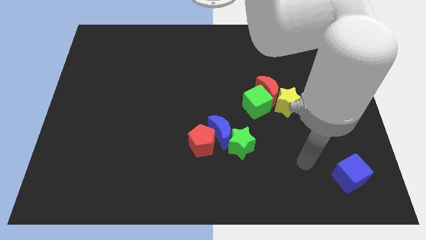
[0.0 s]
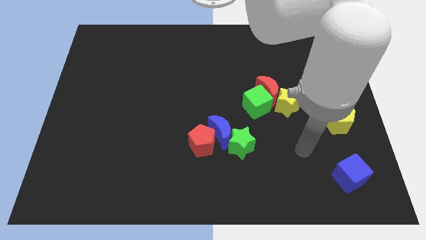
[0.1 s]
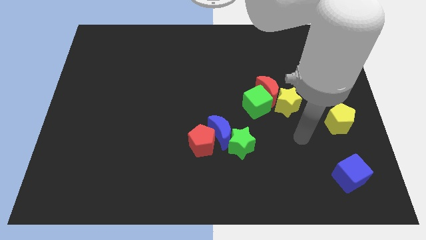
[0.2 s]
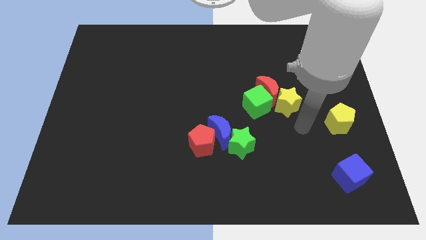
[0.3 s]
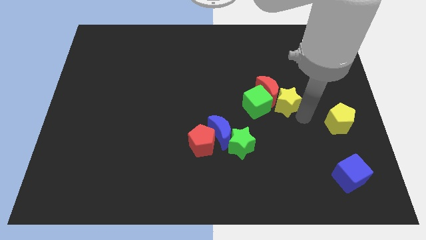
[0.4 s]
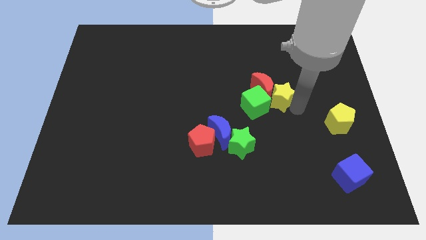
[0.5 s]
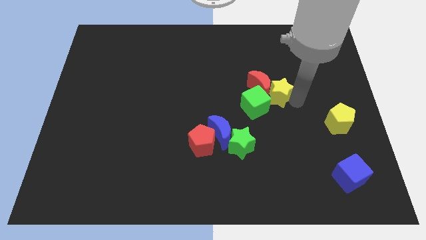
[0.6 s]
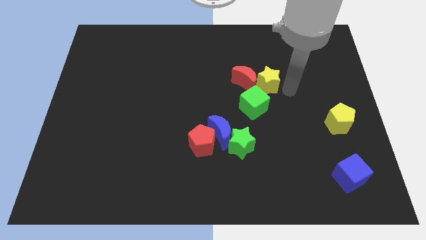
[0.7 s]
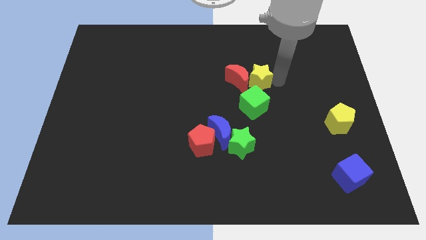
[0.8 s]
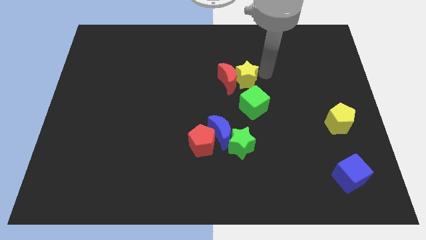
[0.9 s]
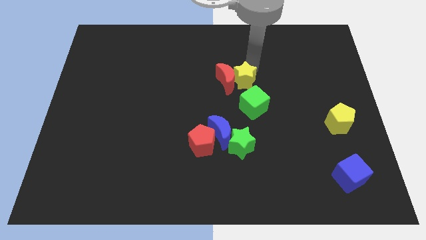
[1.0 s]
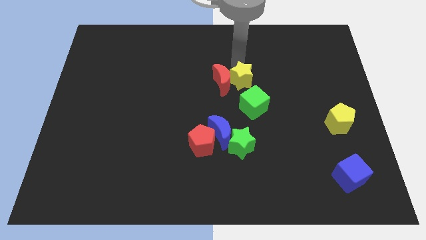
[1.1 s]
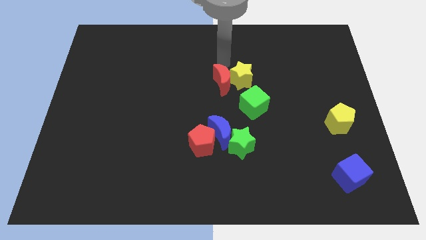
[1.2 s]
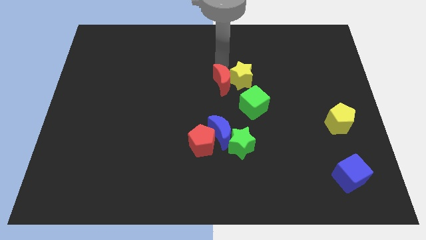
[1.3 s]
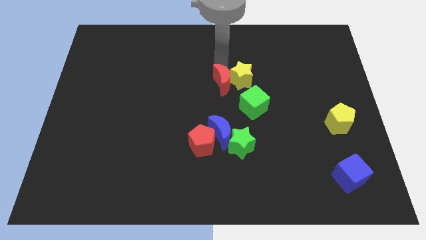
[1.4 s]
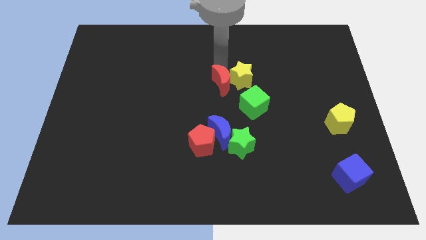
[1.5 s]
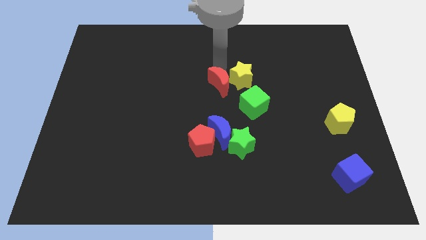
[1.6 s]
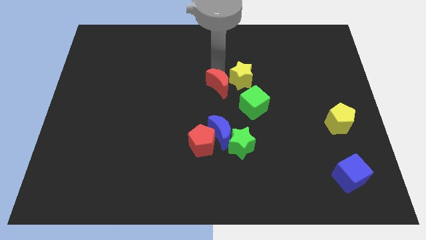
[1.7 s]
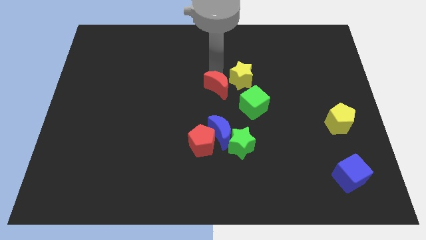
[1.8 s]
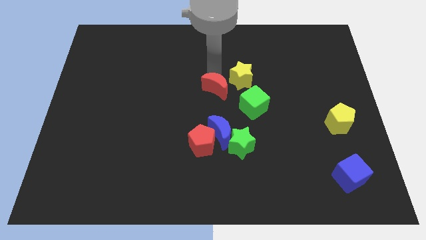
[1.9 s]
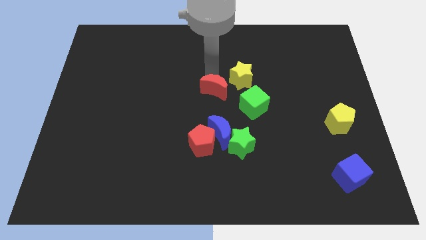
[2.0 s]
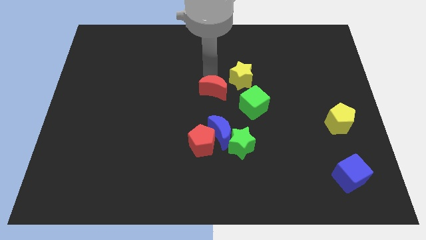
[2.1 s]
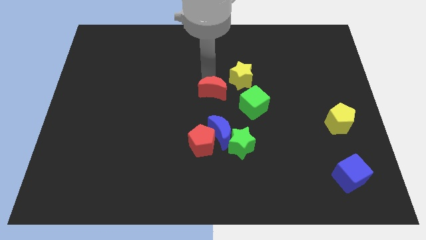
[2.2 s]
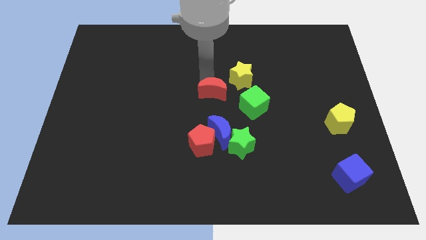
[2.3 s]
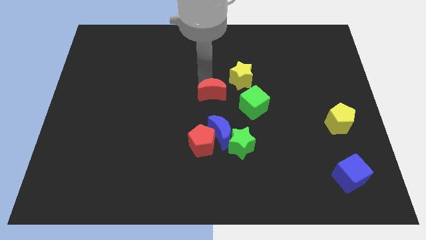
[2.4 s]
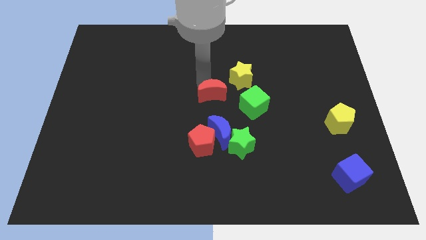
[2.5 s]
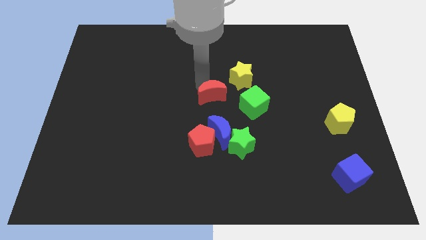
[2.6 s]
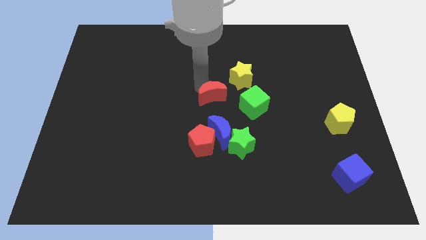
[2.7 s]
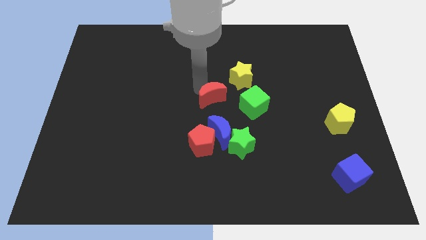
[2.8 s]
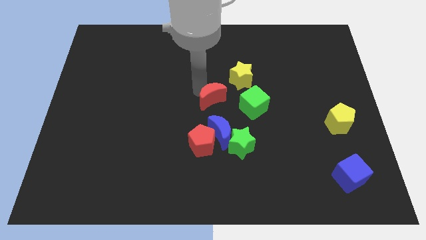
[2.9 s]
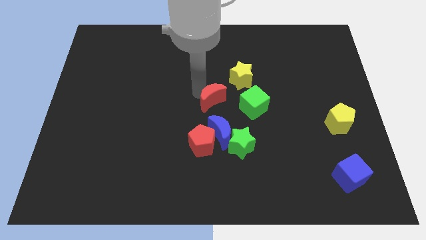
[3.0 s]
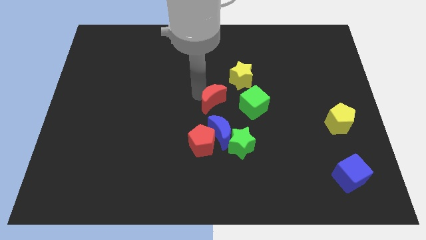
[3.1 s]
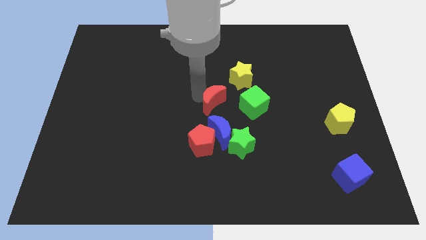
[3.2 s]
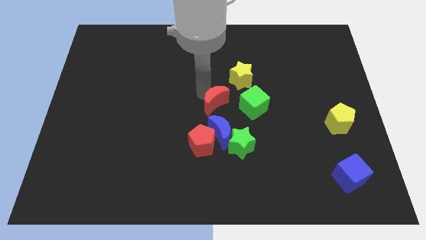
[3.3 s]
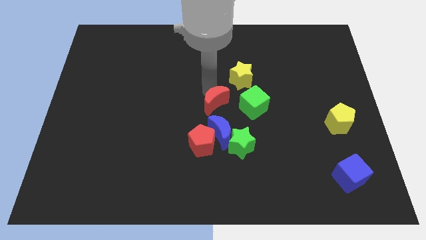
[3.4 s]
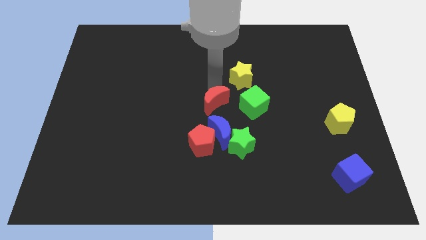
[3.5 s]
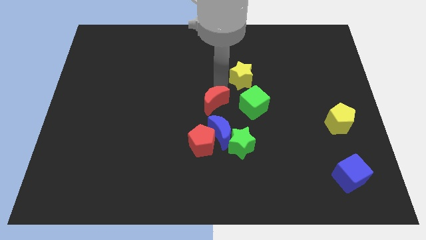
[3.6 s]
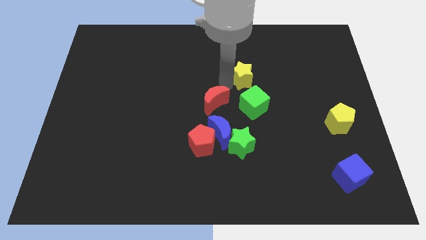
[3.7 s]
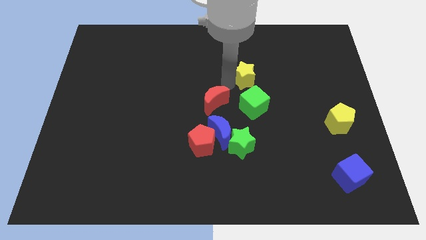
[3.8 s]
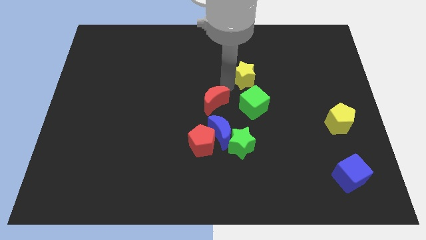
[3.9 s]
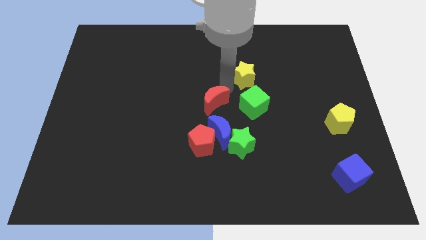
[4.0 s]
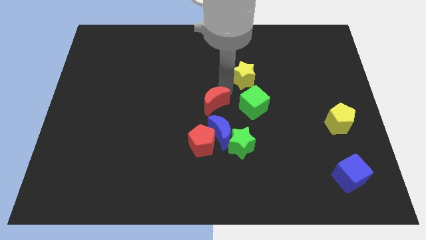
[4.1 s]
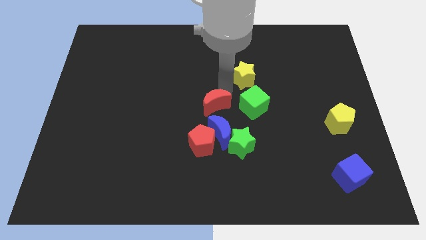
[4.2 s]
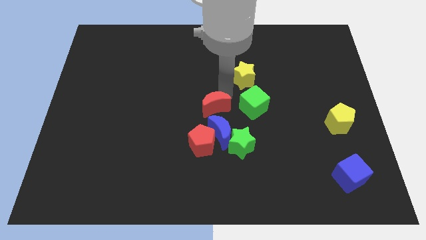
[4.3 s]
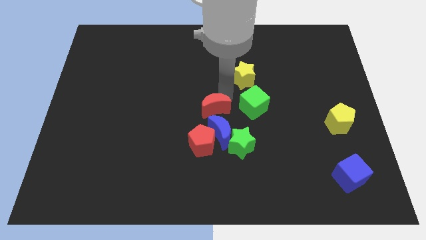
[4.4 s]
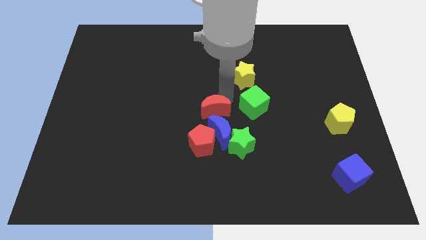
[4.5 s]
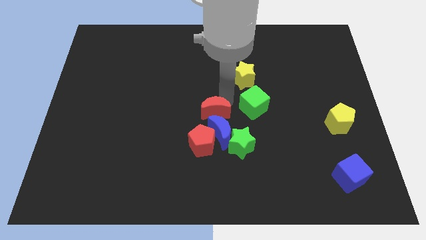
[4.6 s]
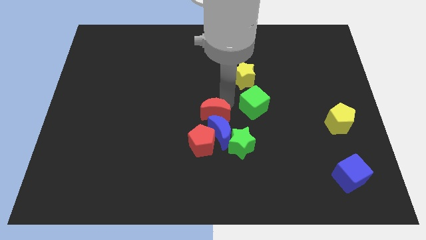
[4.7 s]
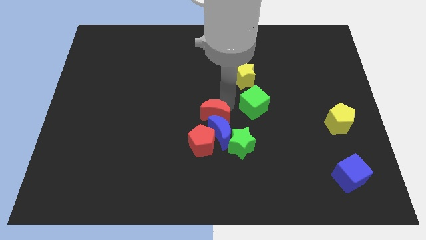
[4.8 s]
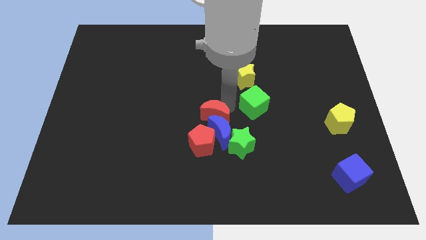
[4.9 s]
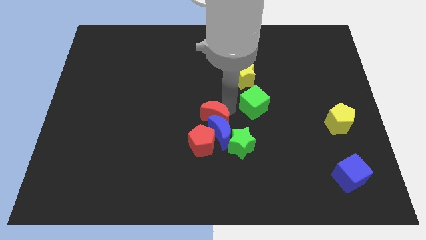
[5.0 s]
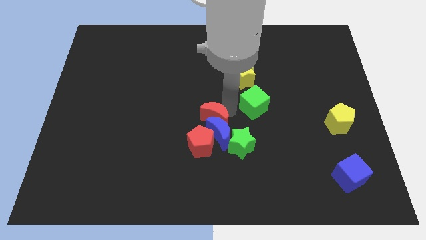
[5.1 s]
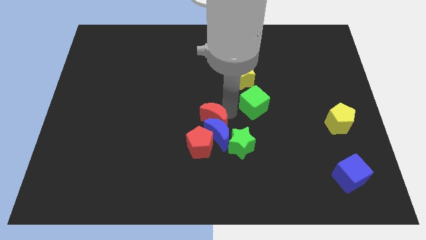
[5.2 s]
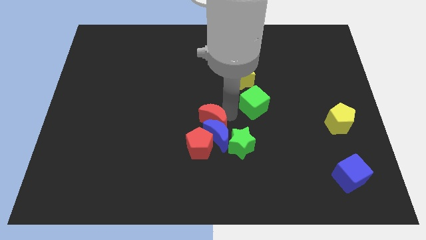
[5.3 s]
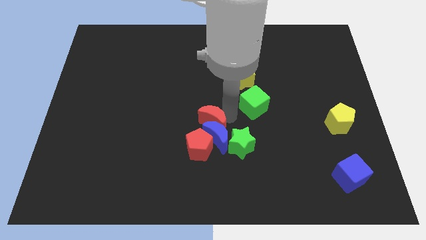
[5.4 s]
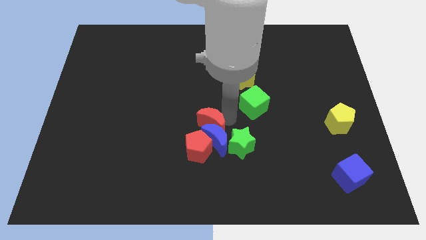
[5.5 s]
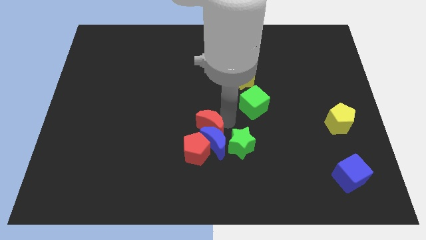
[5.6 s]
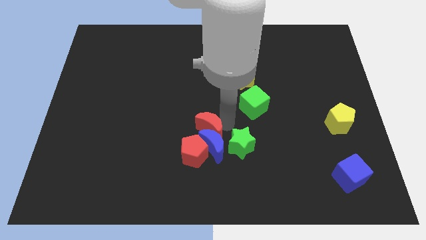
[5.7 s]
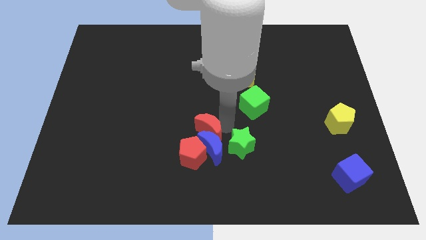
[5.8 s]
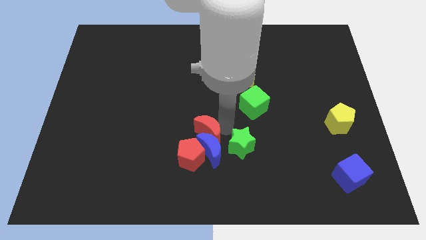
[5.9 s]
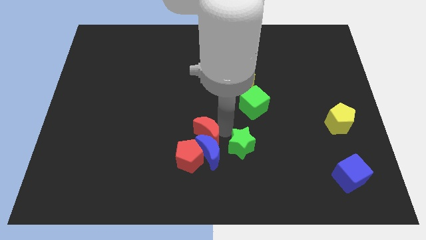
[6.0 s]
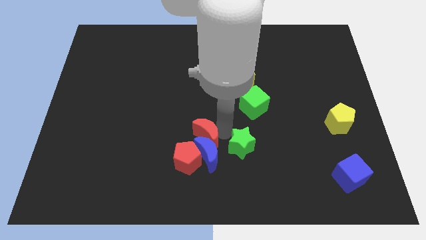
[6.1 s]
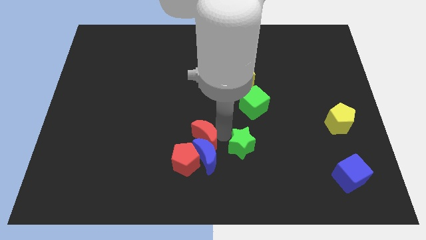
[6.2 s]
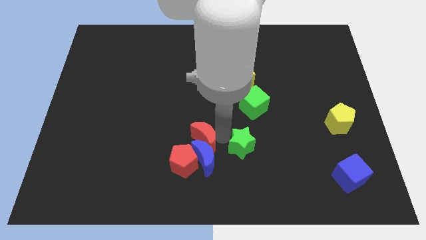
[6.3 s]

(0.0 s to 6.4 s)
slide the red moon down and to the left

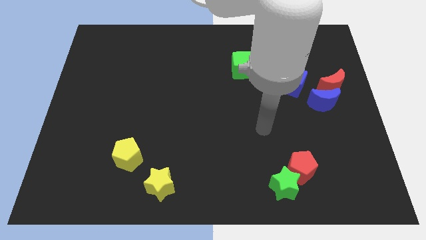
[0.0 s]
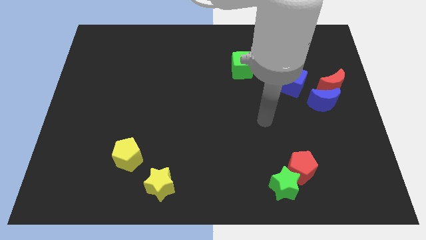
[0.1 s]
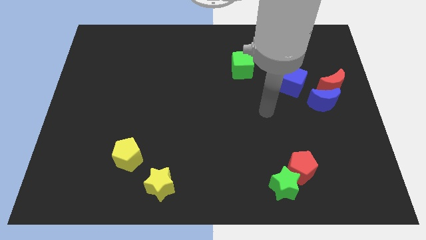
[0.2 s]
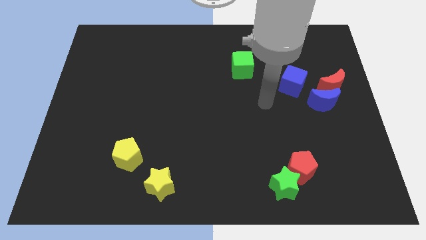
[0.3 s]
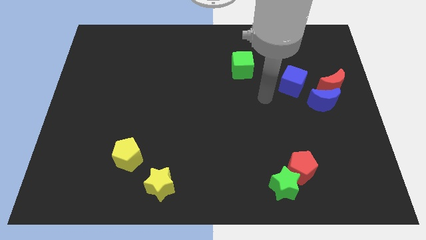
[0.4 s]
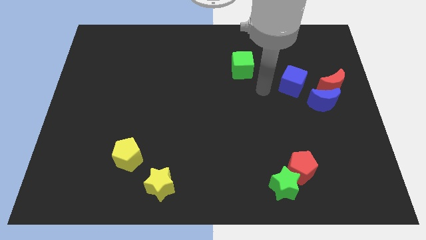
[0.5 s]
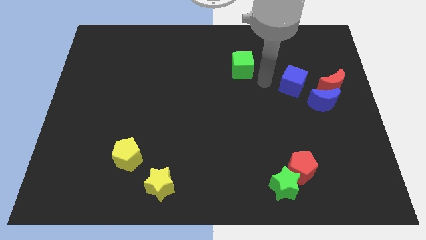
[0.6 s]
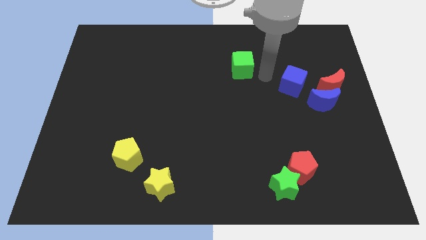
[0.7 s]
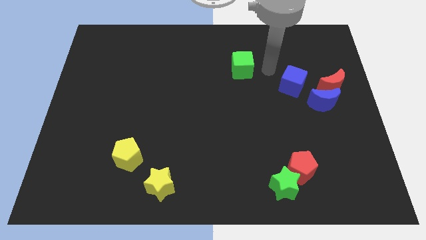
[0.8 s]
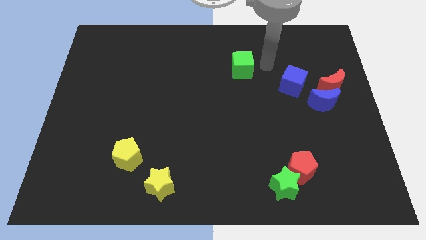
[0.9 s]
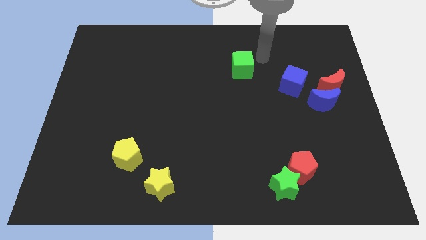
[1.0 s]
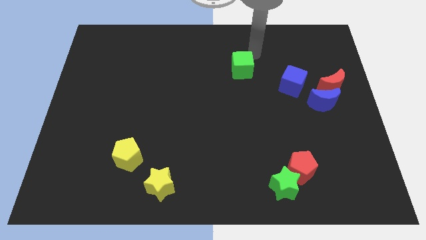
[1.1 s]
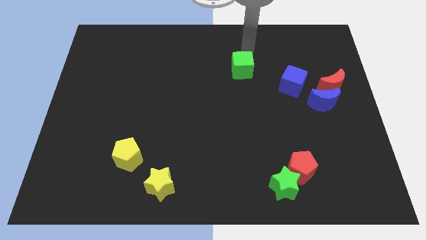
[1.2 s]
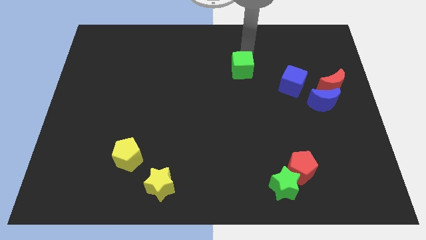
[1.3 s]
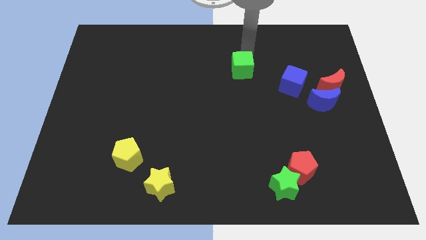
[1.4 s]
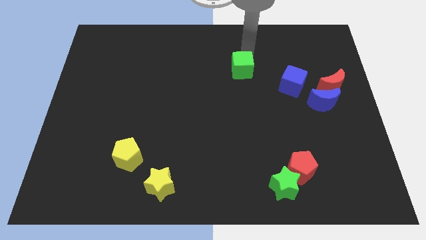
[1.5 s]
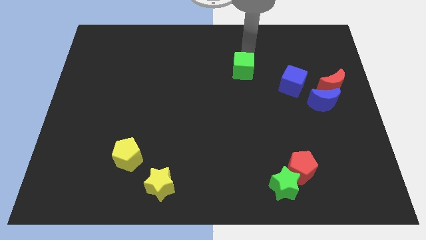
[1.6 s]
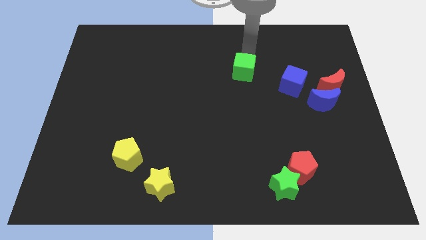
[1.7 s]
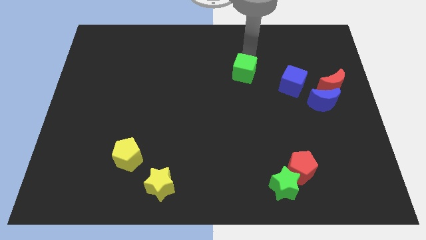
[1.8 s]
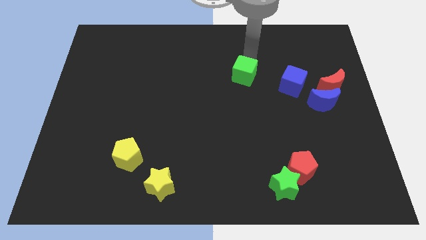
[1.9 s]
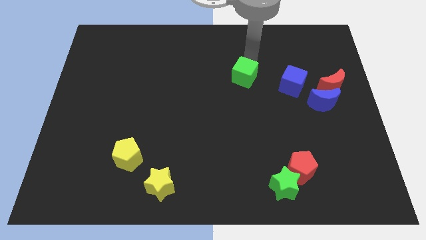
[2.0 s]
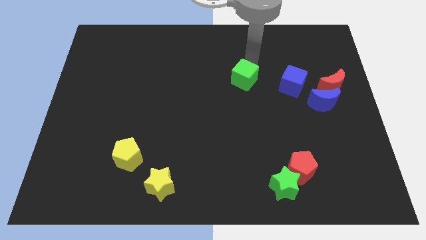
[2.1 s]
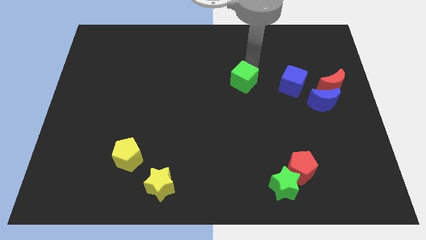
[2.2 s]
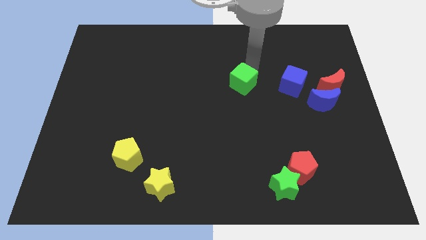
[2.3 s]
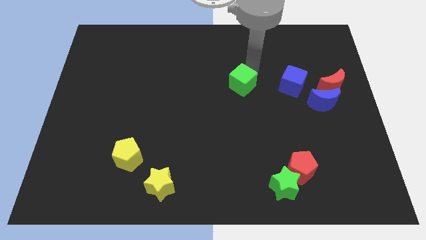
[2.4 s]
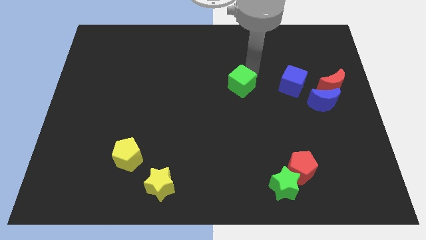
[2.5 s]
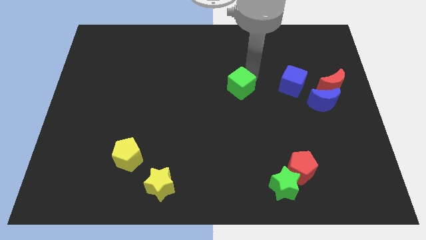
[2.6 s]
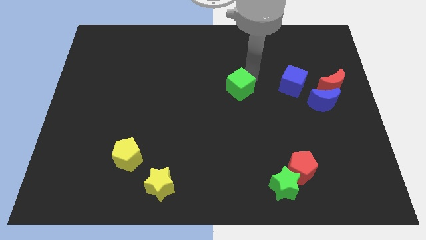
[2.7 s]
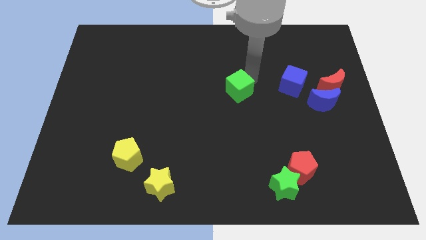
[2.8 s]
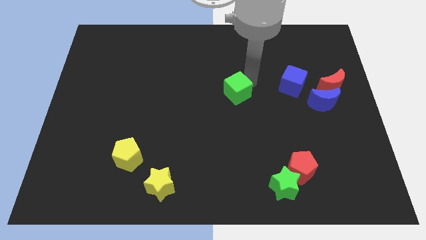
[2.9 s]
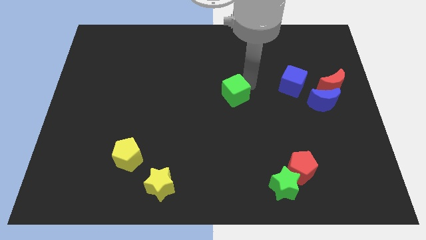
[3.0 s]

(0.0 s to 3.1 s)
slightly move the green cube down and left
